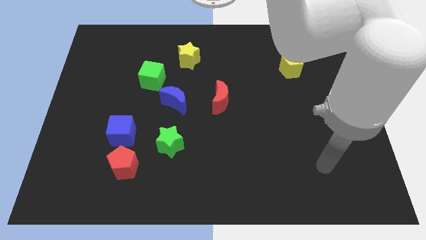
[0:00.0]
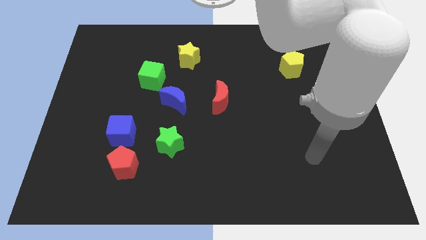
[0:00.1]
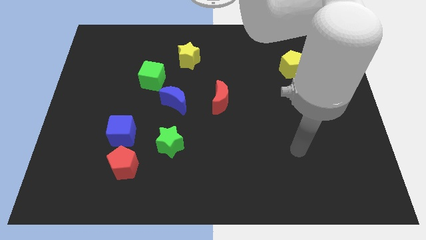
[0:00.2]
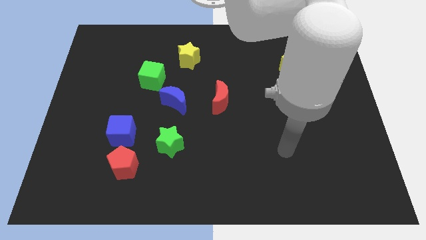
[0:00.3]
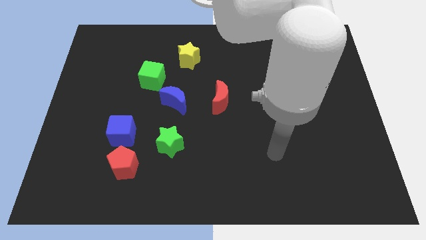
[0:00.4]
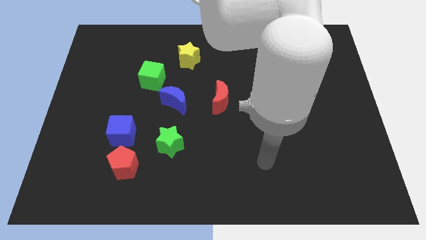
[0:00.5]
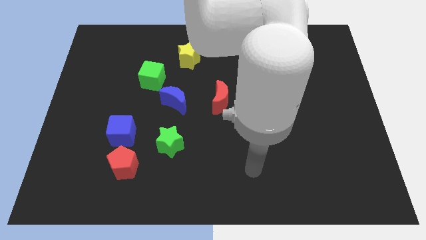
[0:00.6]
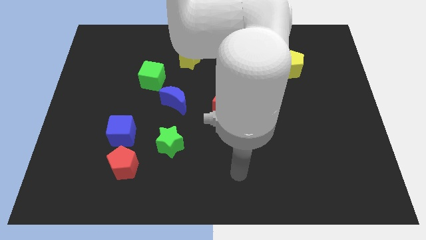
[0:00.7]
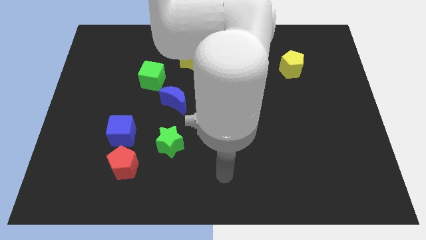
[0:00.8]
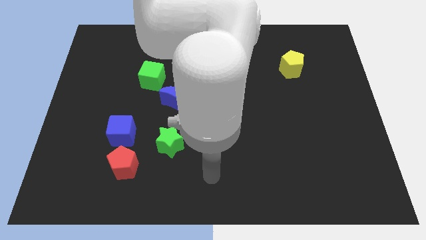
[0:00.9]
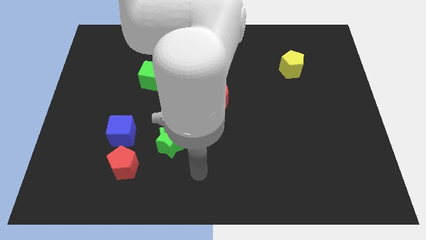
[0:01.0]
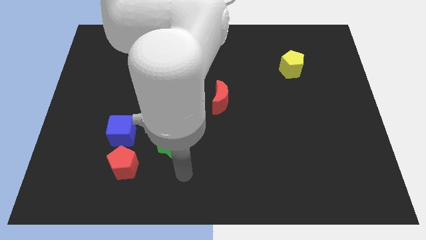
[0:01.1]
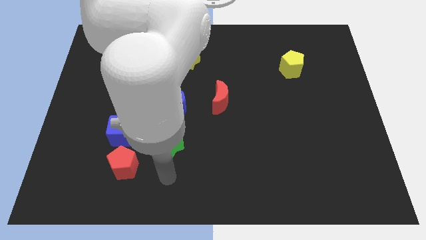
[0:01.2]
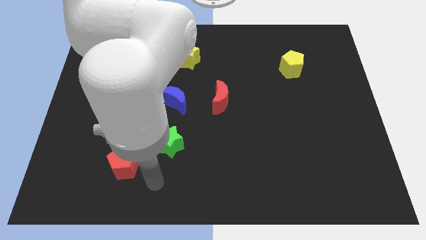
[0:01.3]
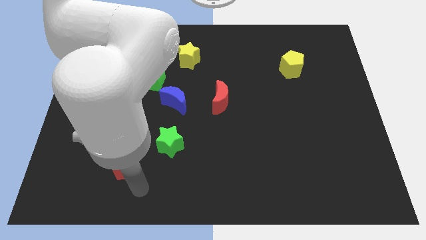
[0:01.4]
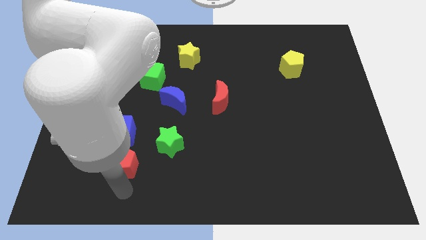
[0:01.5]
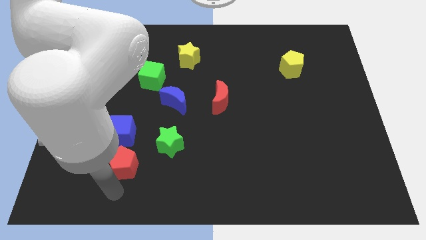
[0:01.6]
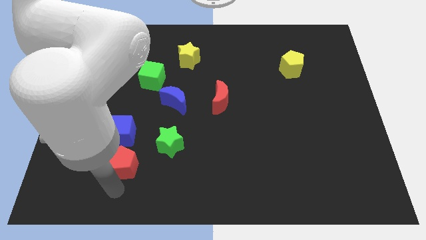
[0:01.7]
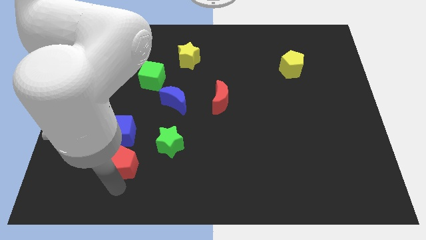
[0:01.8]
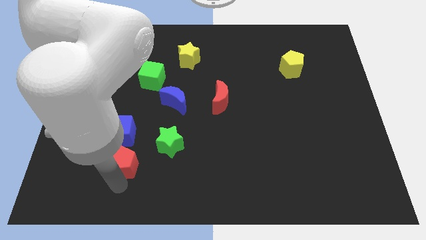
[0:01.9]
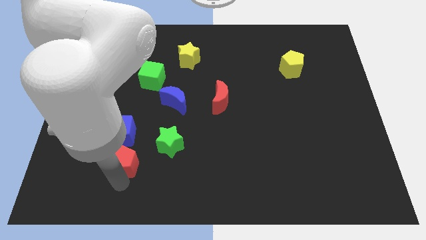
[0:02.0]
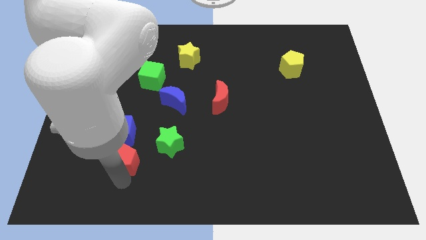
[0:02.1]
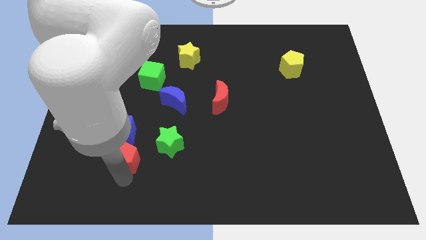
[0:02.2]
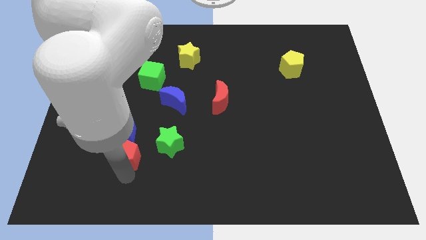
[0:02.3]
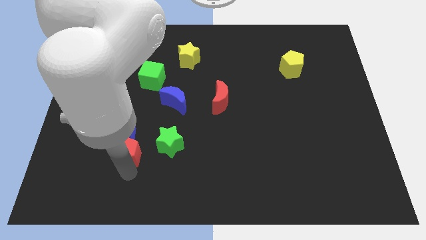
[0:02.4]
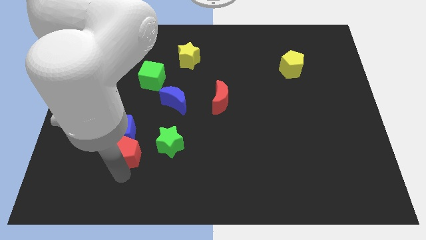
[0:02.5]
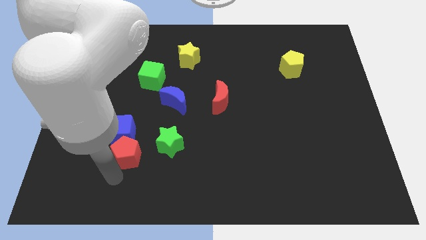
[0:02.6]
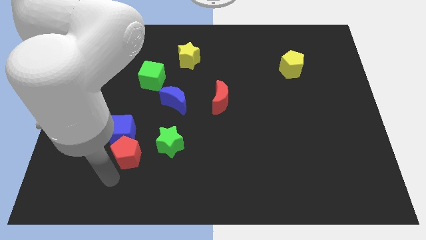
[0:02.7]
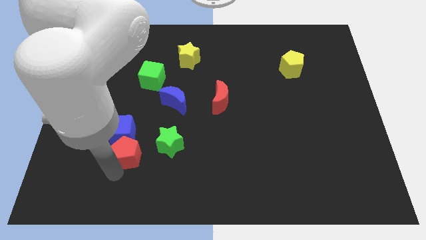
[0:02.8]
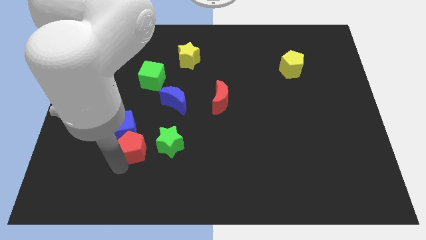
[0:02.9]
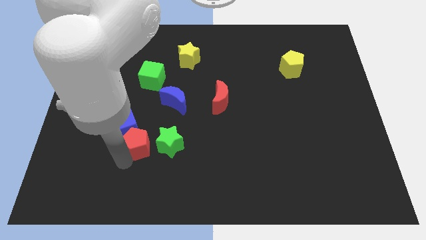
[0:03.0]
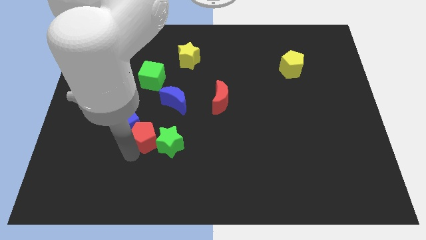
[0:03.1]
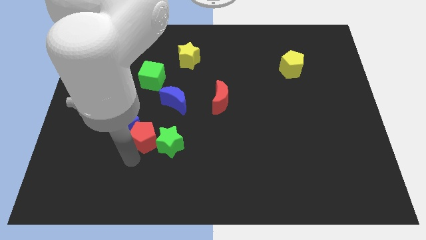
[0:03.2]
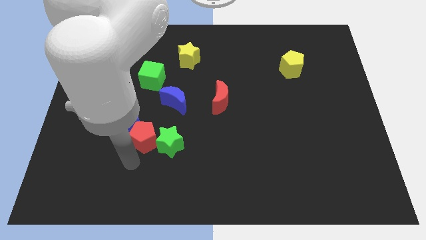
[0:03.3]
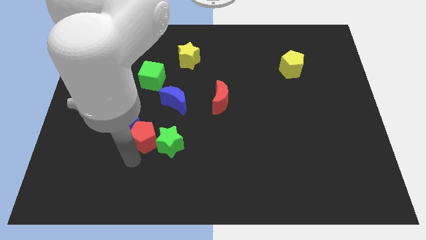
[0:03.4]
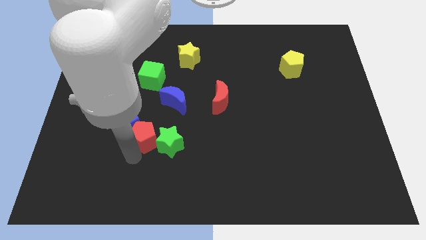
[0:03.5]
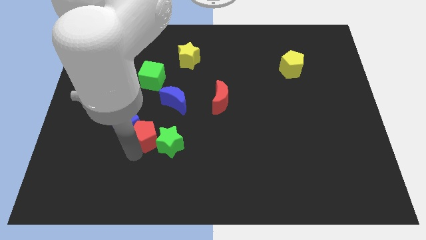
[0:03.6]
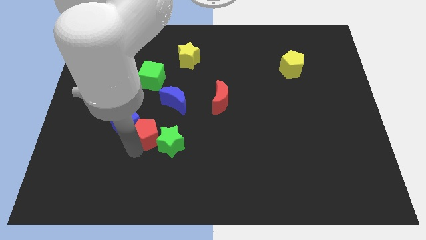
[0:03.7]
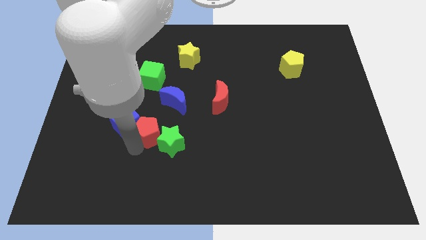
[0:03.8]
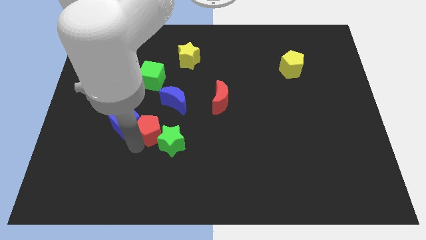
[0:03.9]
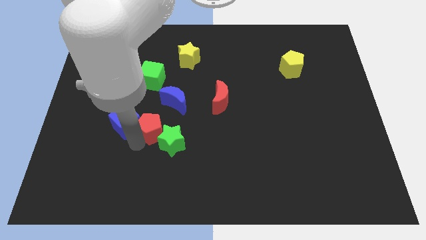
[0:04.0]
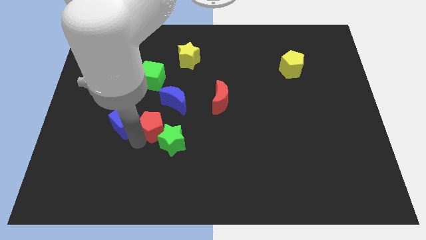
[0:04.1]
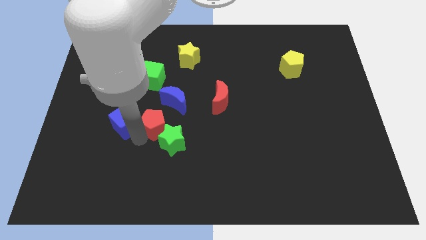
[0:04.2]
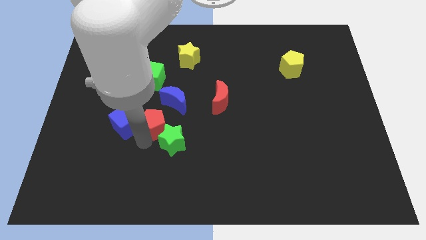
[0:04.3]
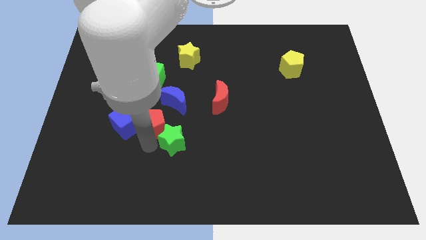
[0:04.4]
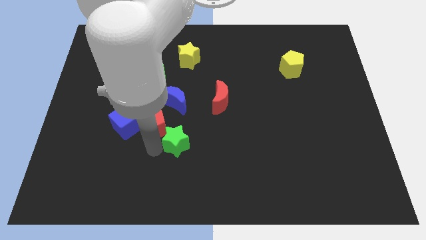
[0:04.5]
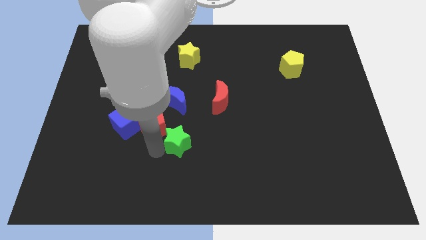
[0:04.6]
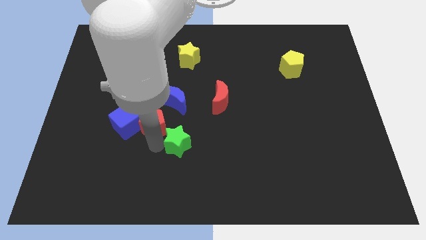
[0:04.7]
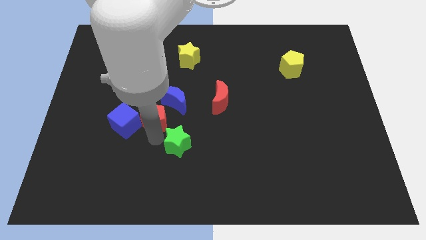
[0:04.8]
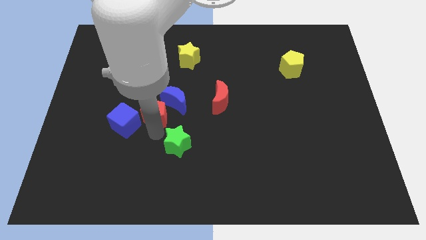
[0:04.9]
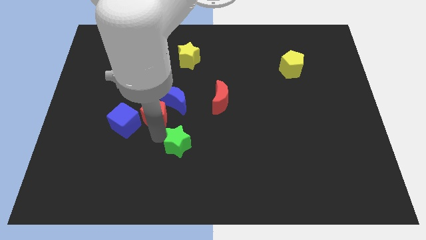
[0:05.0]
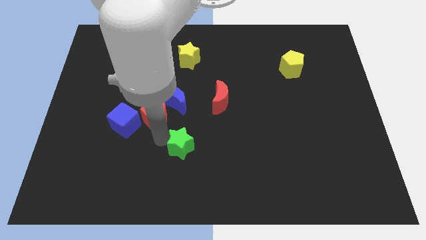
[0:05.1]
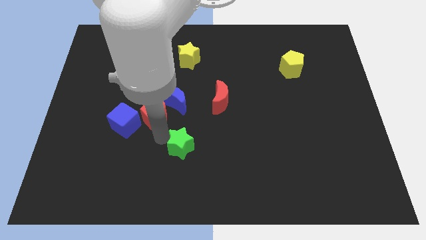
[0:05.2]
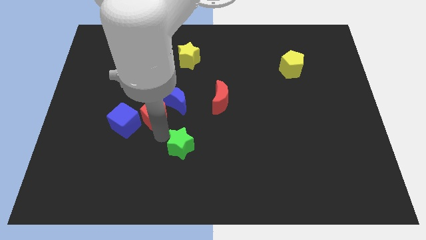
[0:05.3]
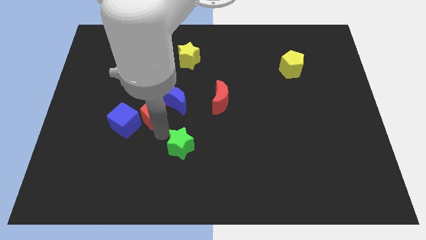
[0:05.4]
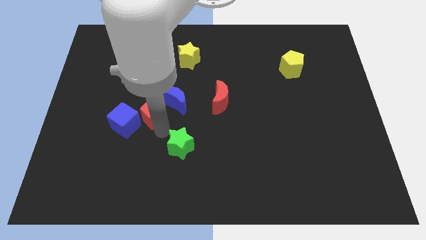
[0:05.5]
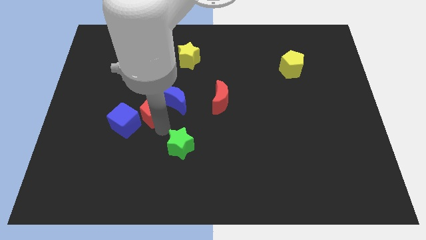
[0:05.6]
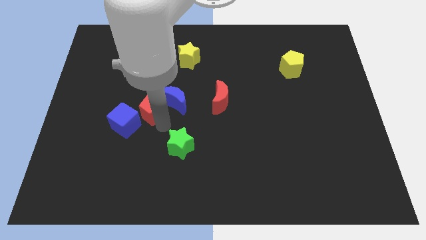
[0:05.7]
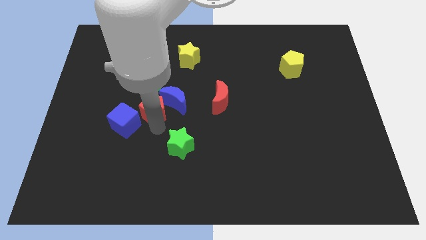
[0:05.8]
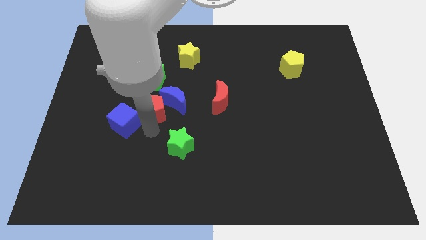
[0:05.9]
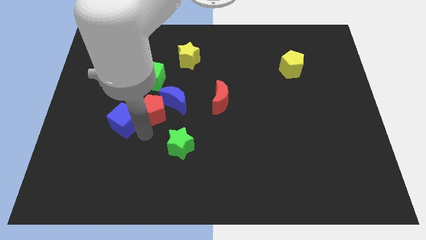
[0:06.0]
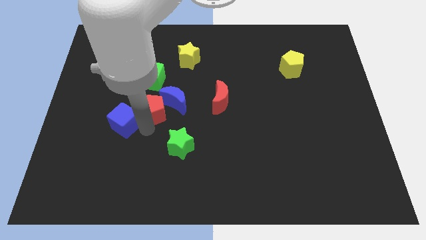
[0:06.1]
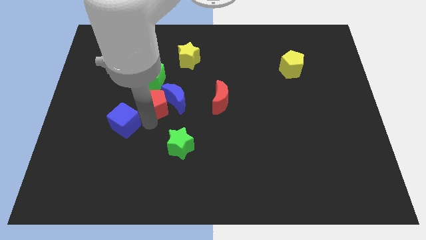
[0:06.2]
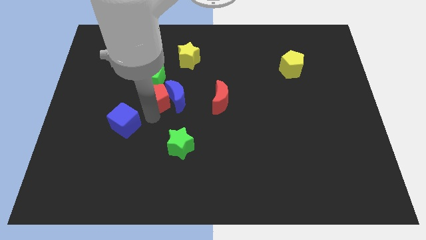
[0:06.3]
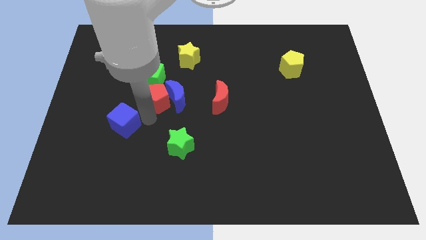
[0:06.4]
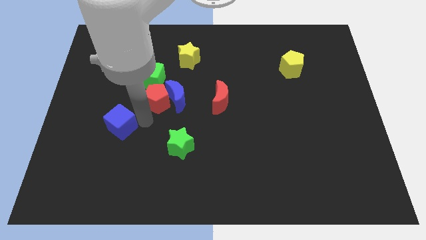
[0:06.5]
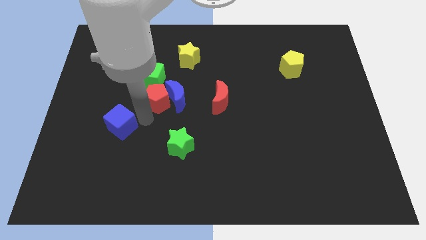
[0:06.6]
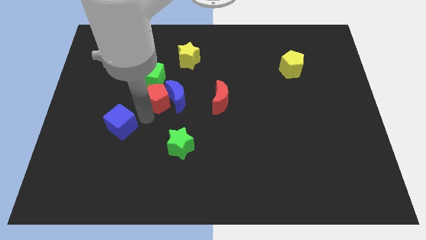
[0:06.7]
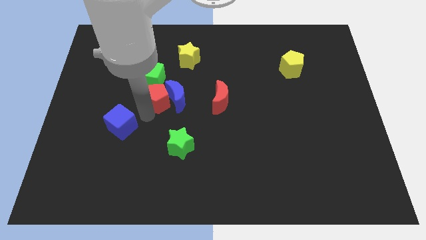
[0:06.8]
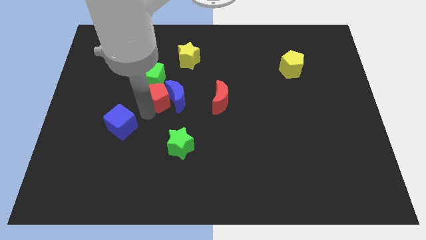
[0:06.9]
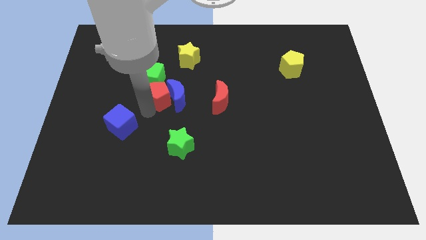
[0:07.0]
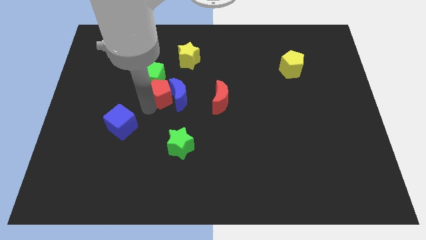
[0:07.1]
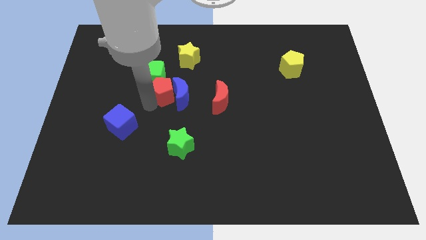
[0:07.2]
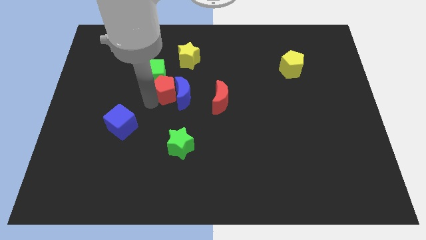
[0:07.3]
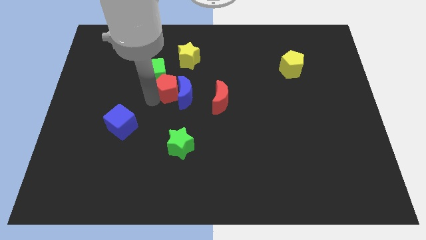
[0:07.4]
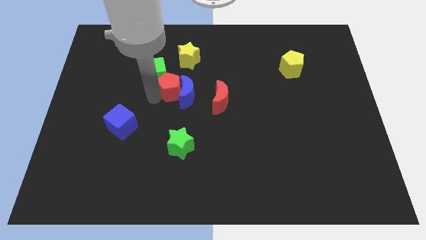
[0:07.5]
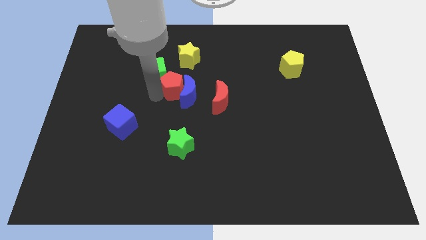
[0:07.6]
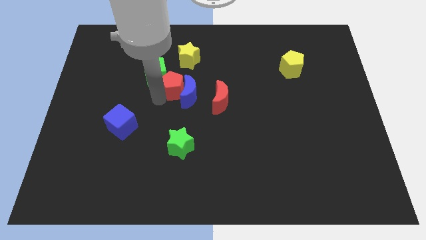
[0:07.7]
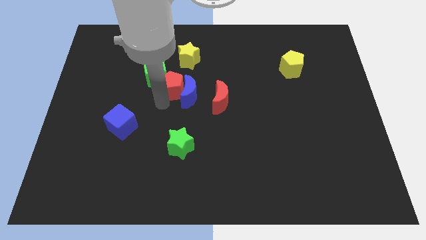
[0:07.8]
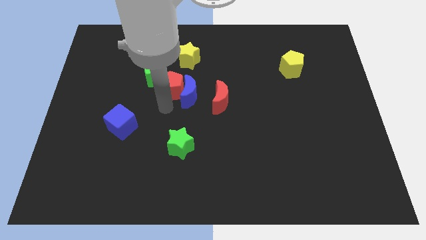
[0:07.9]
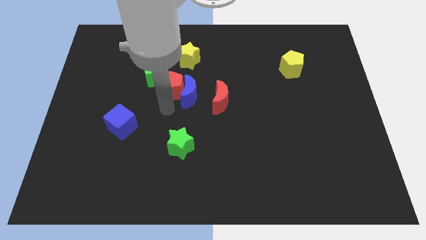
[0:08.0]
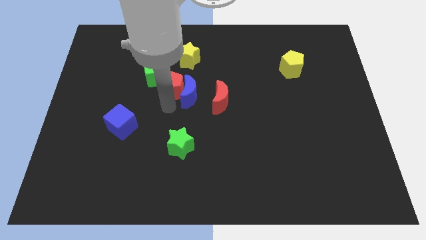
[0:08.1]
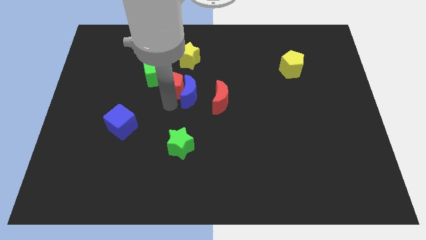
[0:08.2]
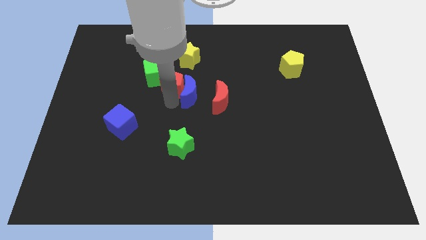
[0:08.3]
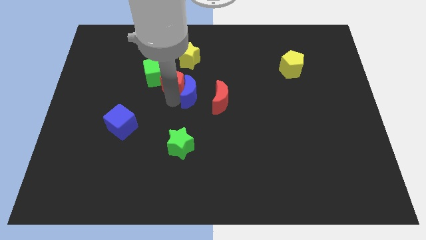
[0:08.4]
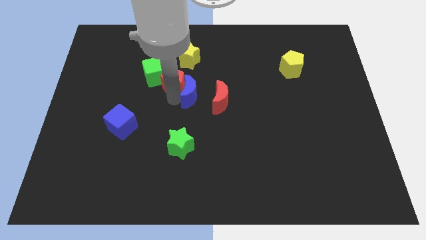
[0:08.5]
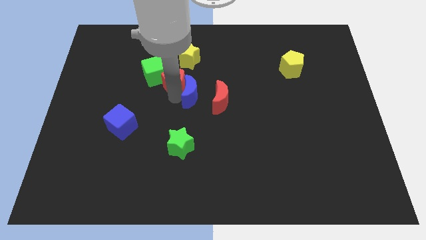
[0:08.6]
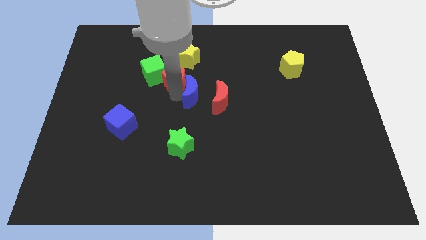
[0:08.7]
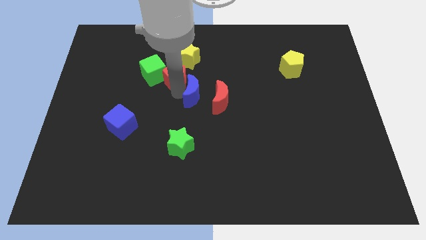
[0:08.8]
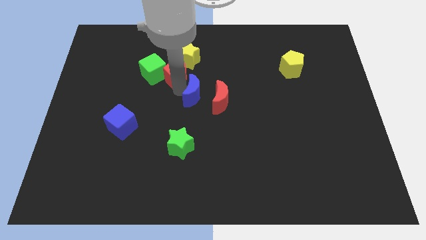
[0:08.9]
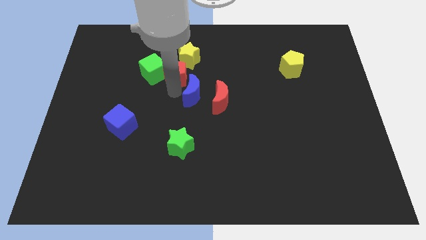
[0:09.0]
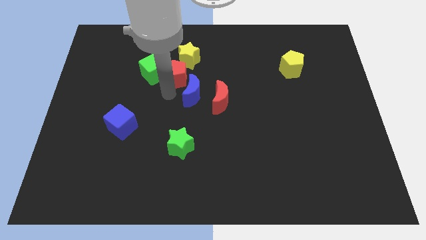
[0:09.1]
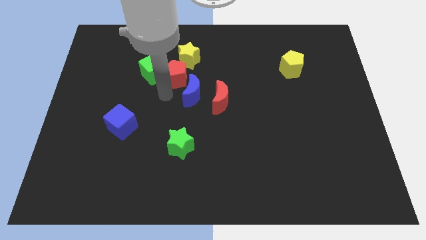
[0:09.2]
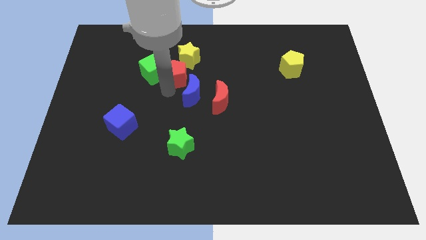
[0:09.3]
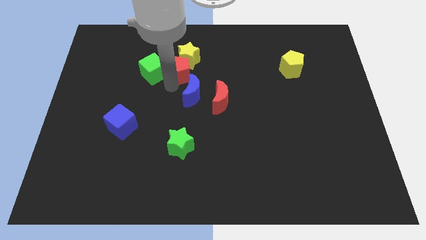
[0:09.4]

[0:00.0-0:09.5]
slide the red pentagon next to the yellow star
